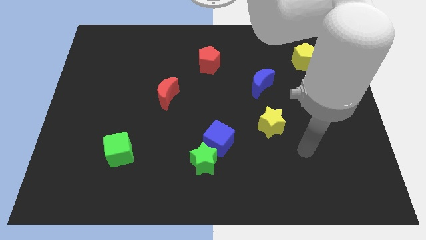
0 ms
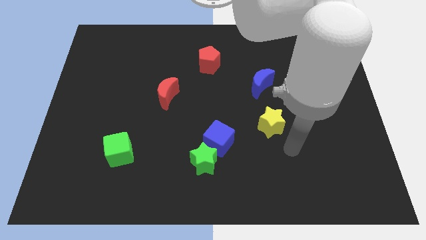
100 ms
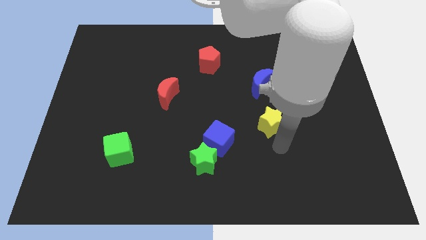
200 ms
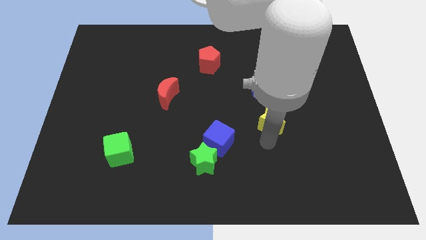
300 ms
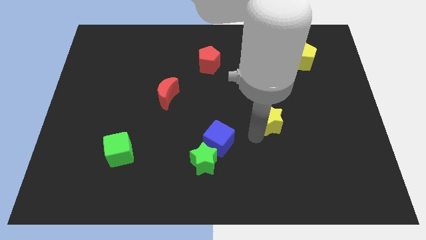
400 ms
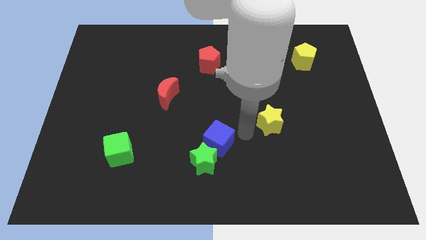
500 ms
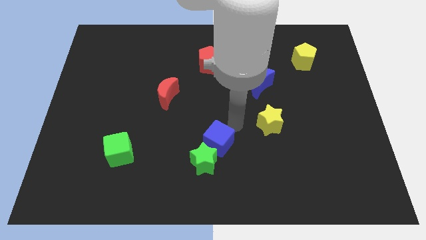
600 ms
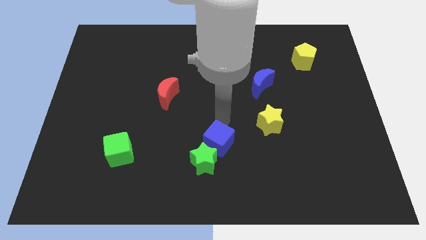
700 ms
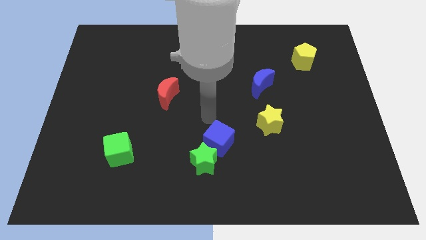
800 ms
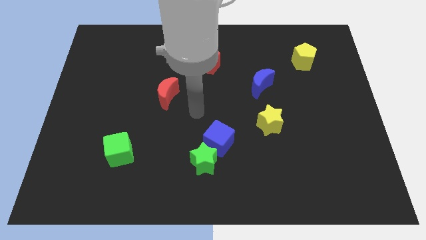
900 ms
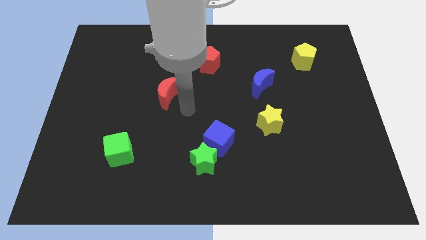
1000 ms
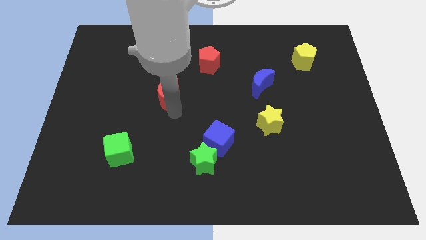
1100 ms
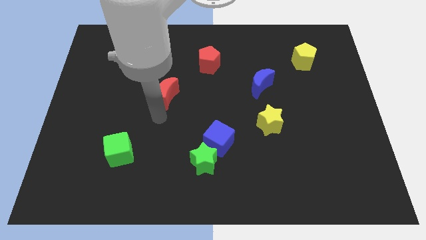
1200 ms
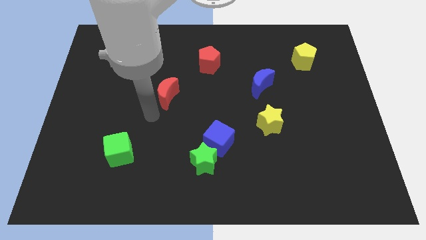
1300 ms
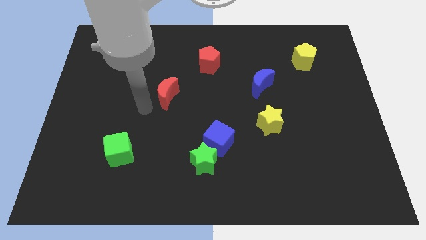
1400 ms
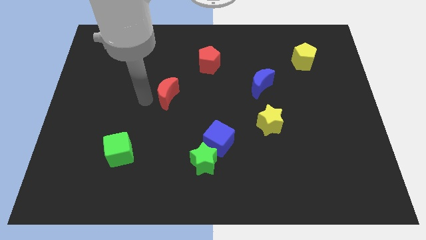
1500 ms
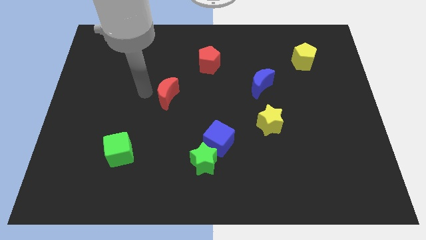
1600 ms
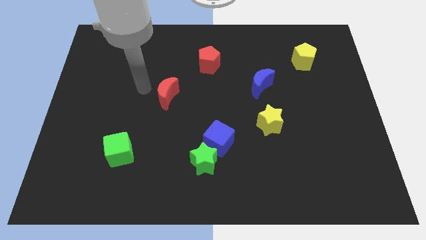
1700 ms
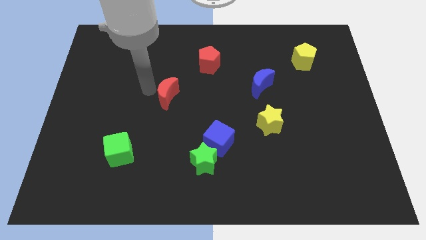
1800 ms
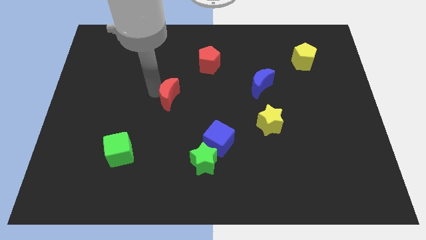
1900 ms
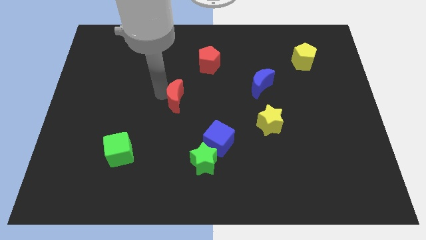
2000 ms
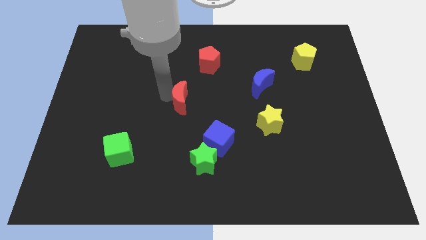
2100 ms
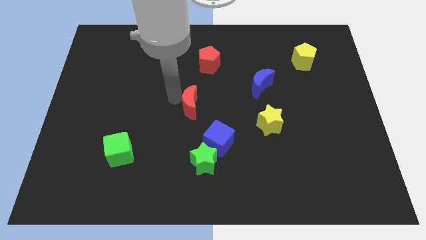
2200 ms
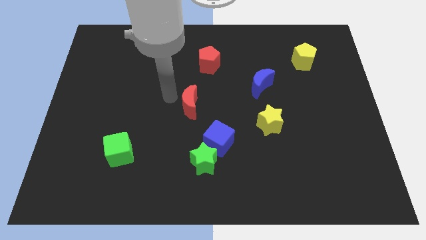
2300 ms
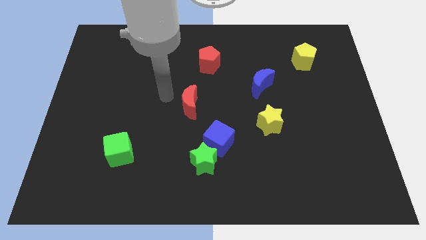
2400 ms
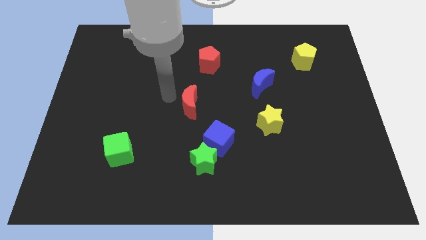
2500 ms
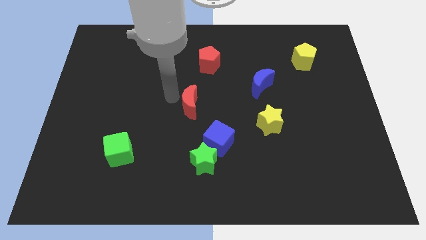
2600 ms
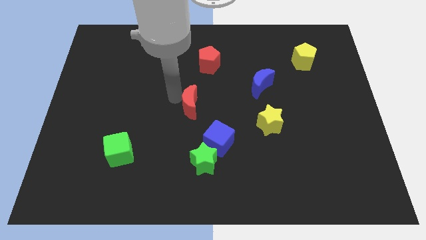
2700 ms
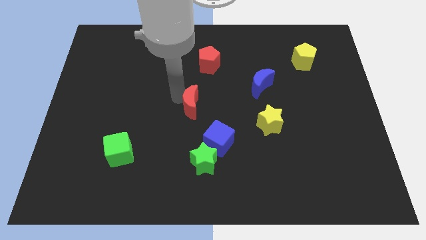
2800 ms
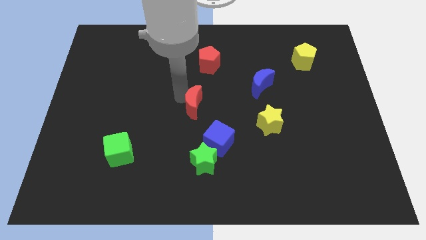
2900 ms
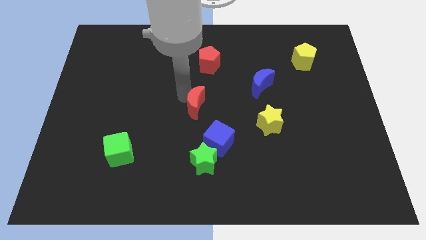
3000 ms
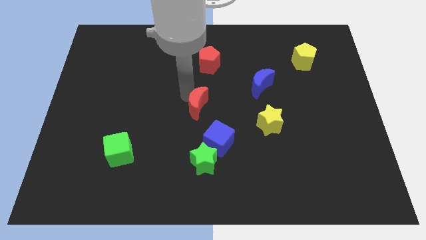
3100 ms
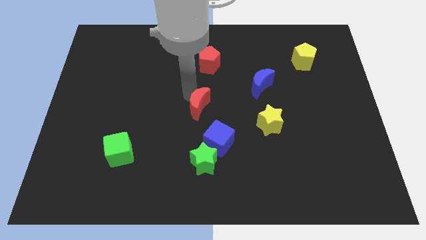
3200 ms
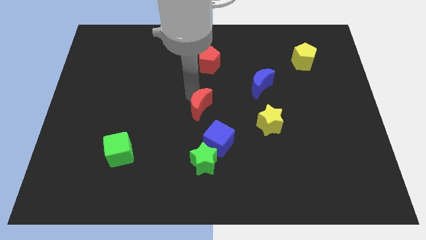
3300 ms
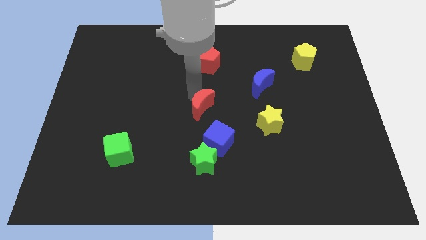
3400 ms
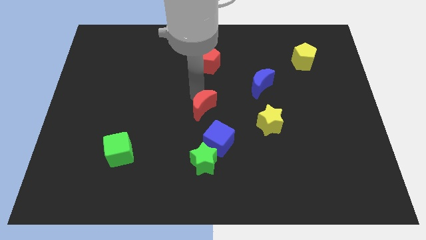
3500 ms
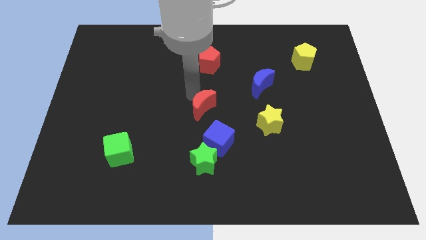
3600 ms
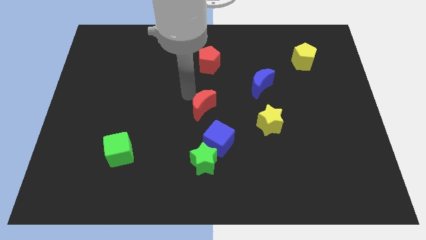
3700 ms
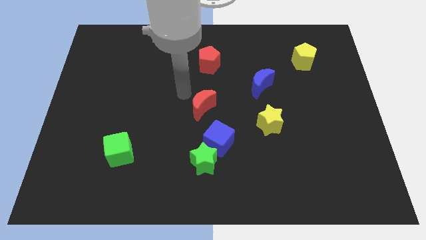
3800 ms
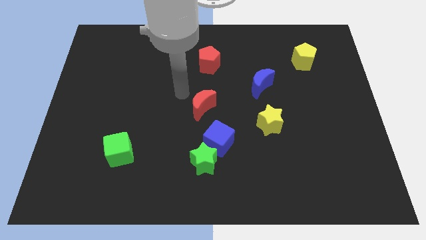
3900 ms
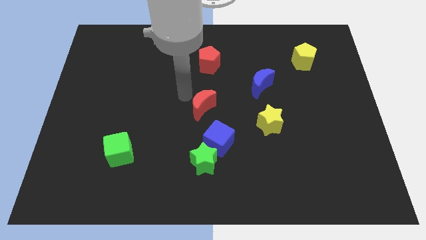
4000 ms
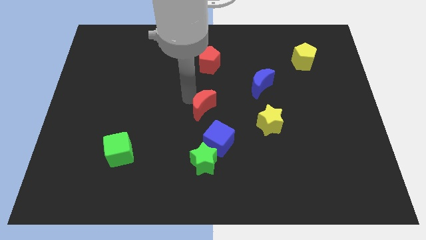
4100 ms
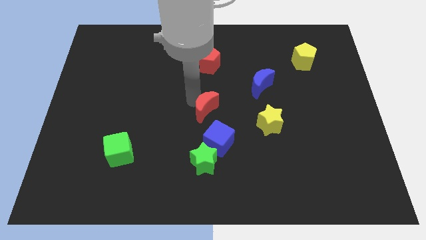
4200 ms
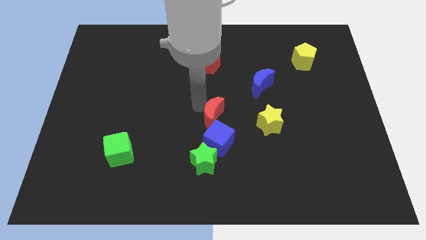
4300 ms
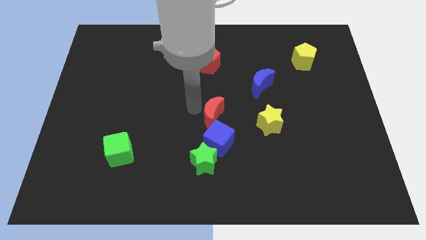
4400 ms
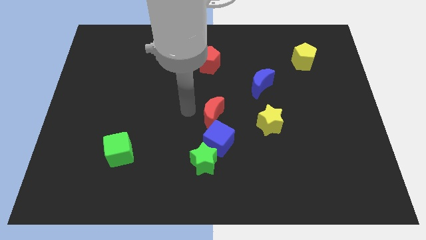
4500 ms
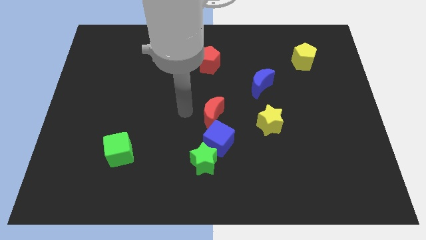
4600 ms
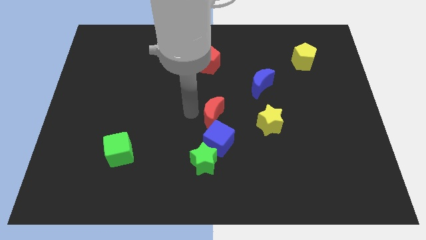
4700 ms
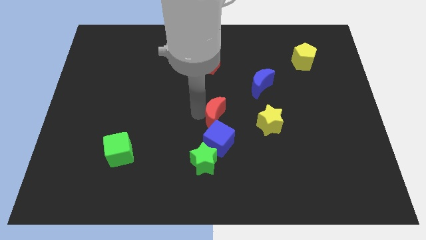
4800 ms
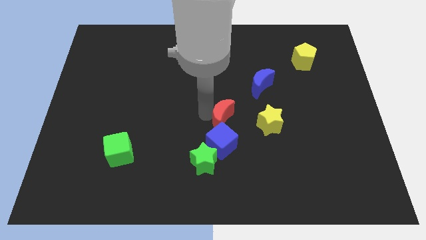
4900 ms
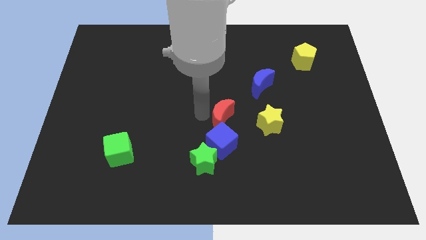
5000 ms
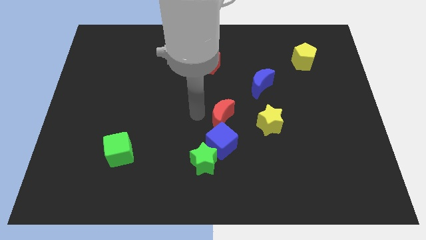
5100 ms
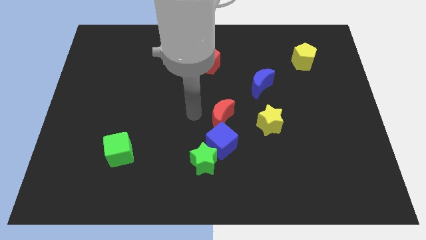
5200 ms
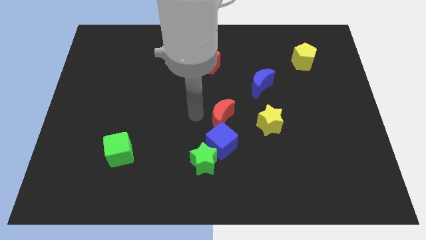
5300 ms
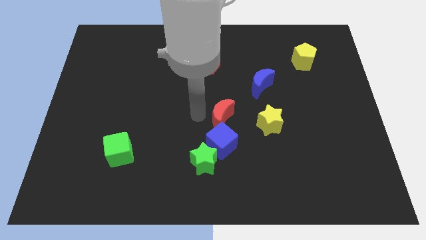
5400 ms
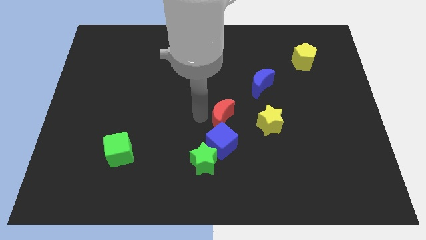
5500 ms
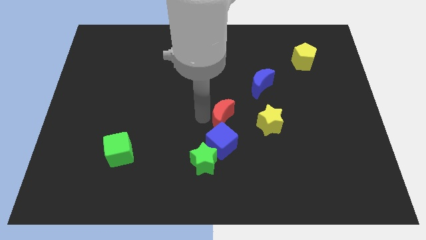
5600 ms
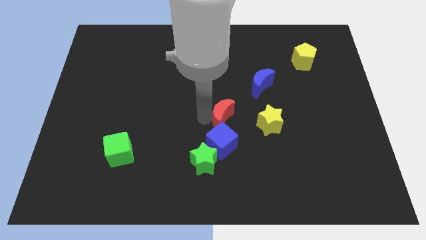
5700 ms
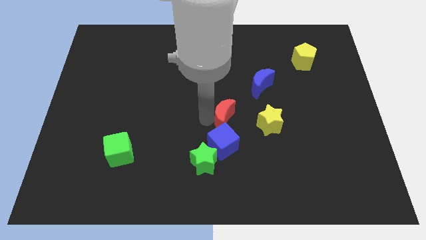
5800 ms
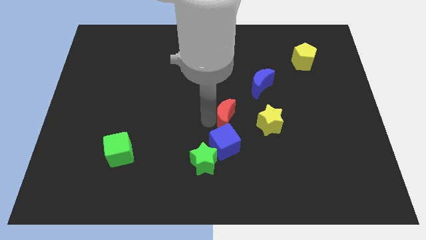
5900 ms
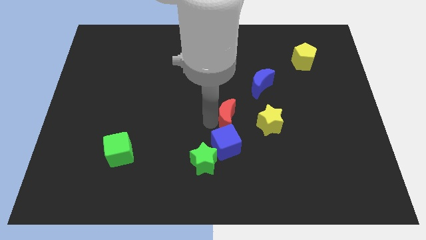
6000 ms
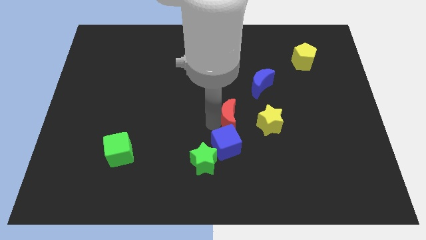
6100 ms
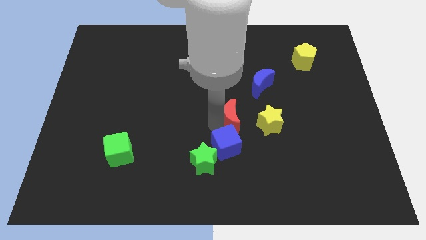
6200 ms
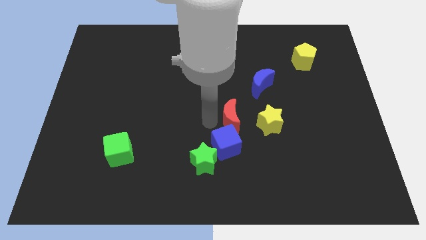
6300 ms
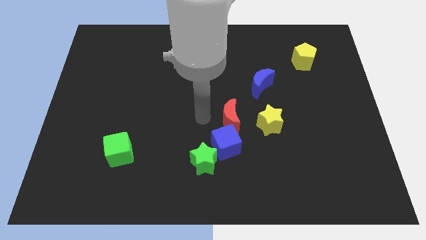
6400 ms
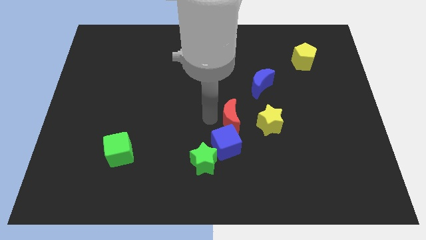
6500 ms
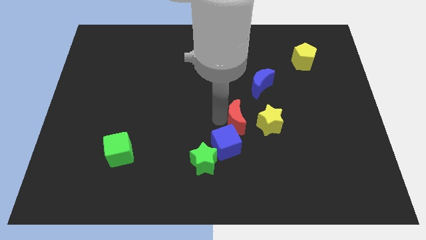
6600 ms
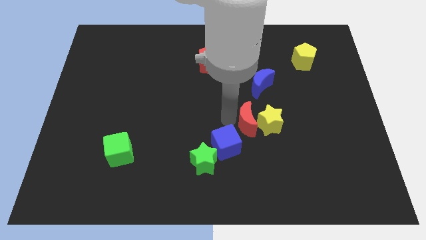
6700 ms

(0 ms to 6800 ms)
move the red moon close to the yellow star

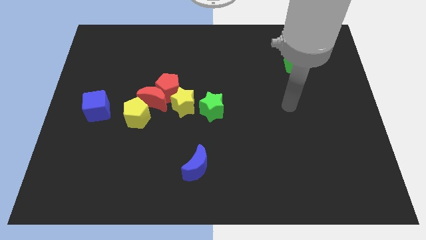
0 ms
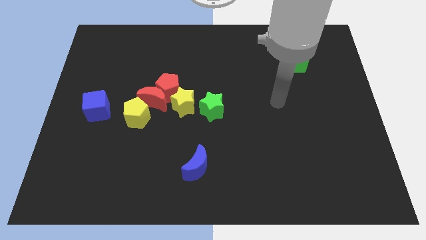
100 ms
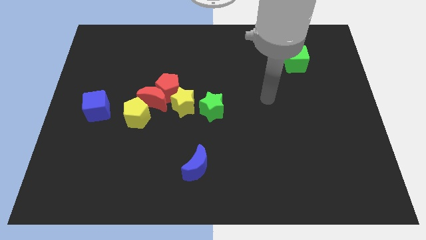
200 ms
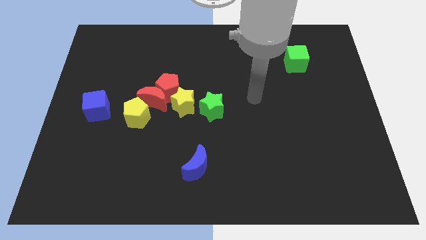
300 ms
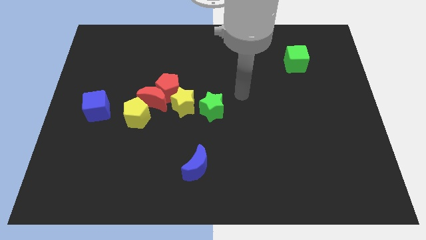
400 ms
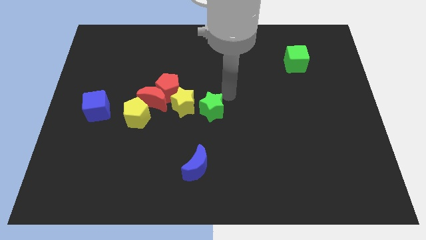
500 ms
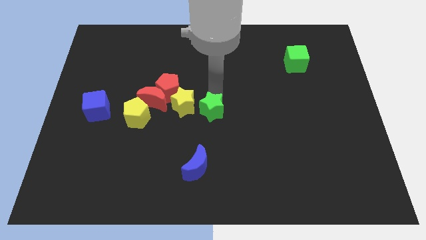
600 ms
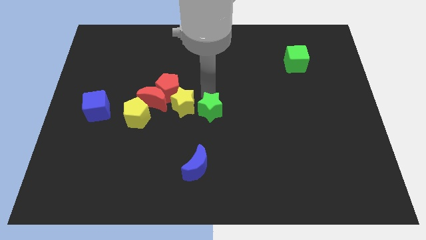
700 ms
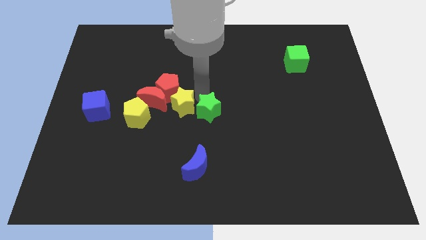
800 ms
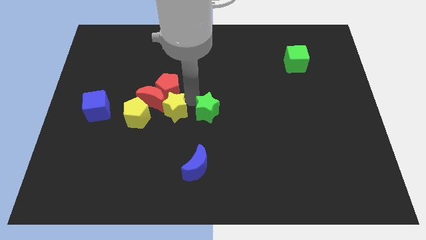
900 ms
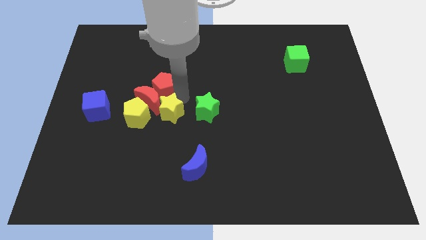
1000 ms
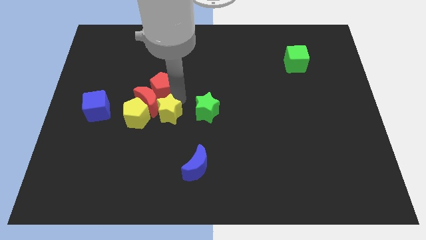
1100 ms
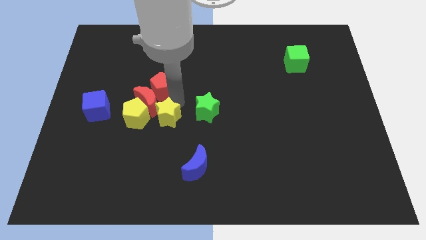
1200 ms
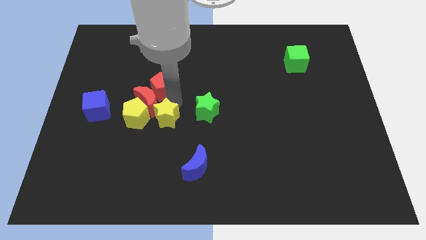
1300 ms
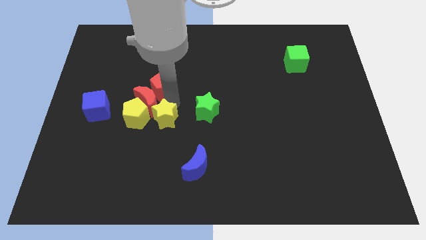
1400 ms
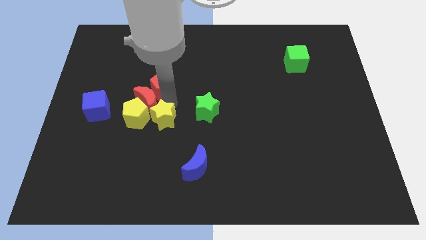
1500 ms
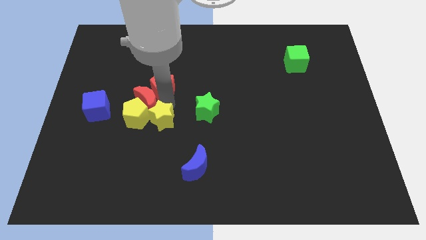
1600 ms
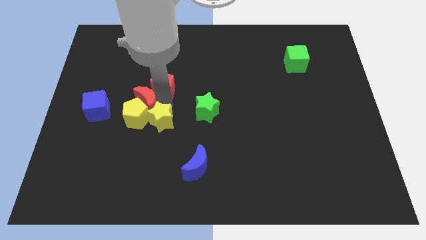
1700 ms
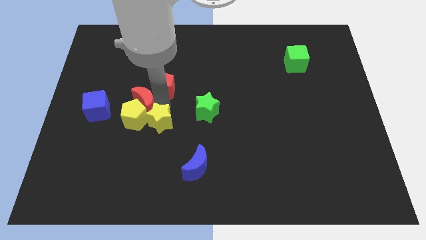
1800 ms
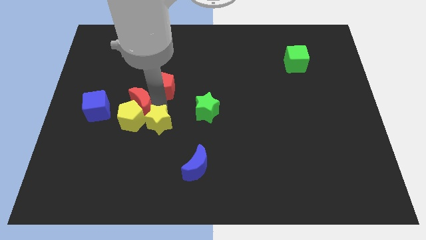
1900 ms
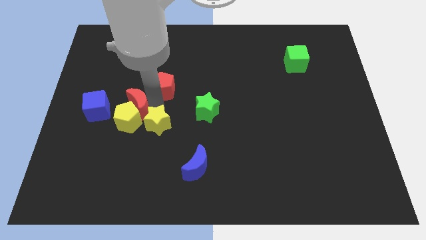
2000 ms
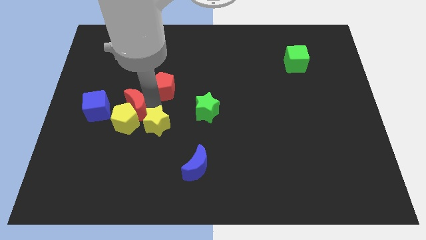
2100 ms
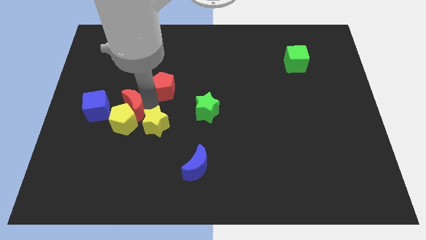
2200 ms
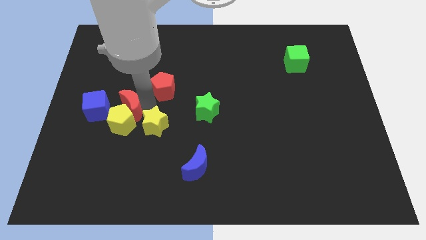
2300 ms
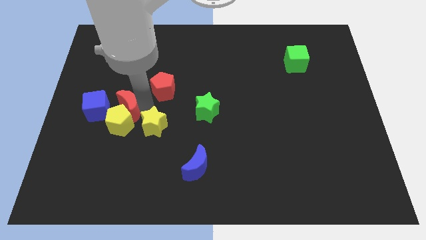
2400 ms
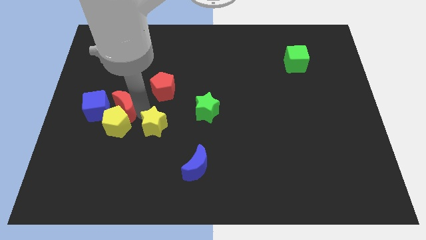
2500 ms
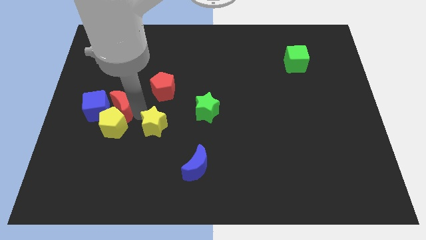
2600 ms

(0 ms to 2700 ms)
put the red moon to the blue cube
